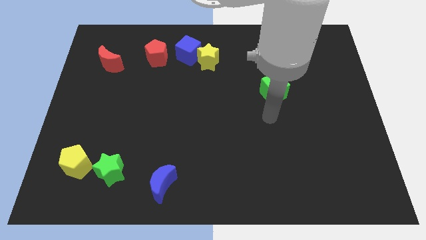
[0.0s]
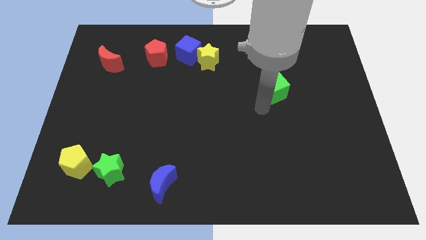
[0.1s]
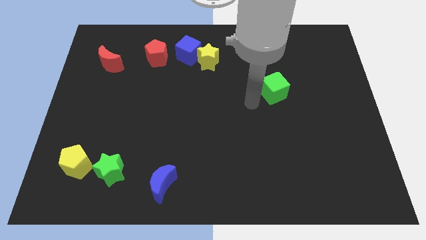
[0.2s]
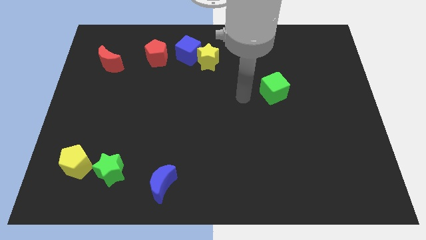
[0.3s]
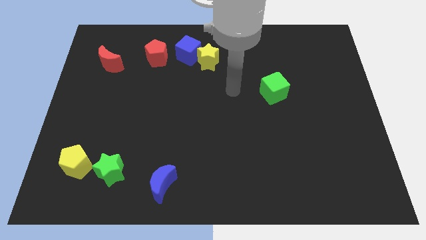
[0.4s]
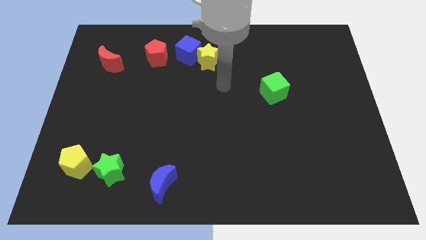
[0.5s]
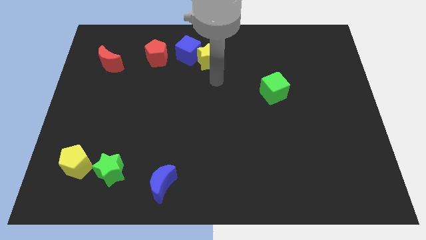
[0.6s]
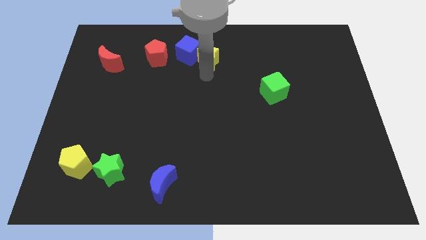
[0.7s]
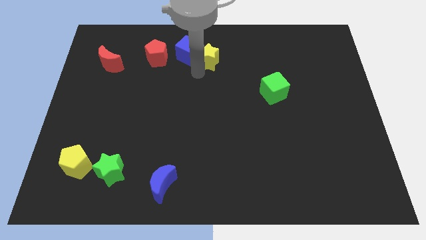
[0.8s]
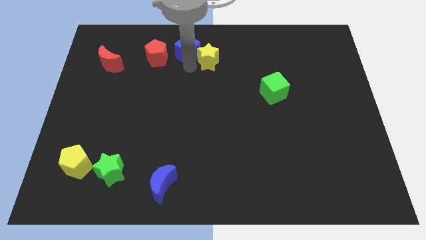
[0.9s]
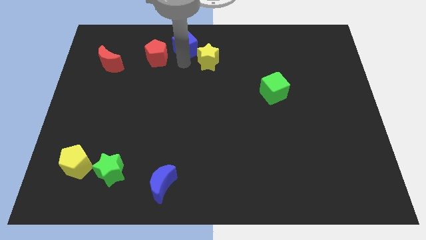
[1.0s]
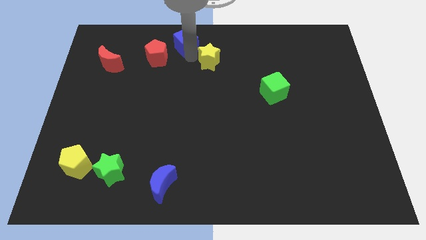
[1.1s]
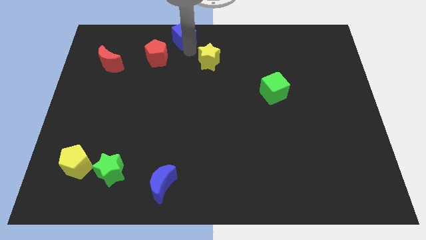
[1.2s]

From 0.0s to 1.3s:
pull the yellow star apart from the blue cube

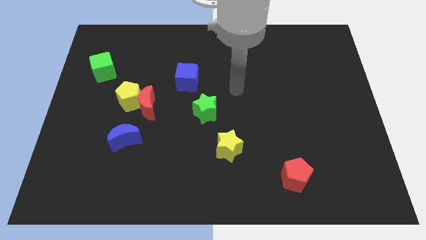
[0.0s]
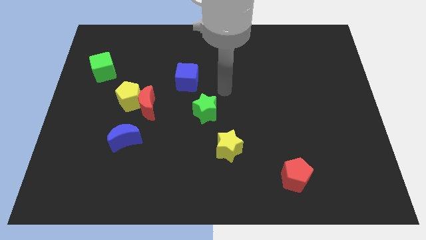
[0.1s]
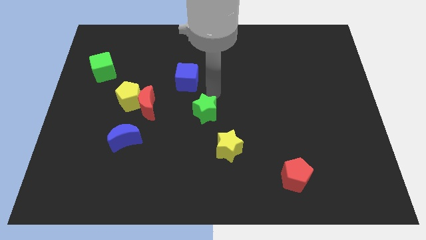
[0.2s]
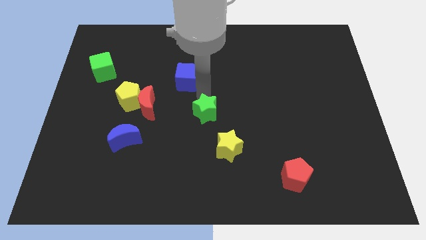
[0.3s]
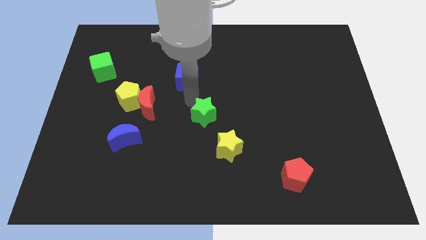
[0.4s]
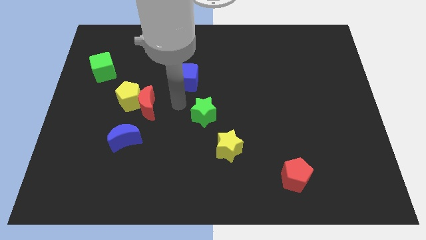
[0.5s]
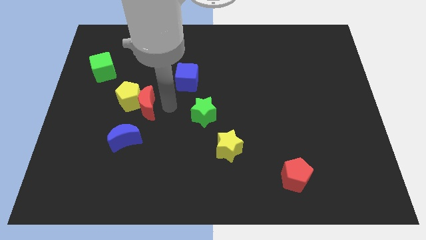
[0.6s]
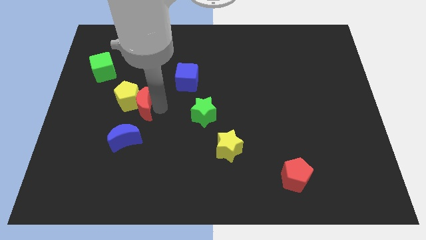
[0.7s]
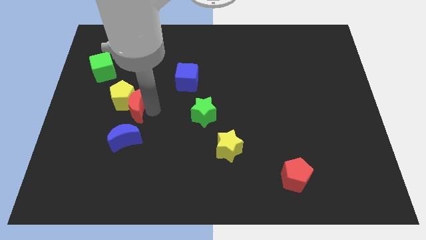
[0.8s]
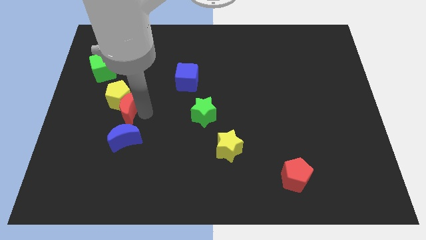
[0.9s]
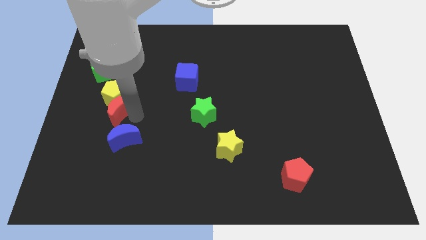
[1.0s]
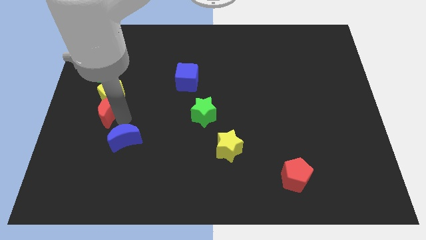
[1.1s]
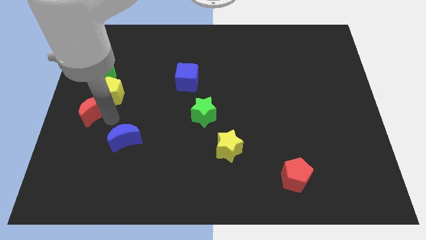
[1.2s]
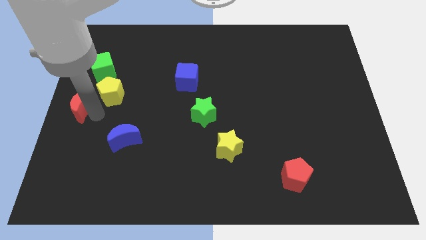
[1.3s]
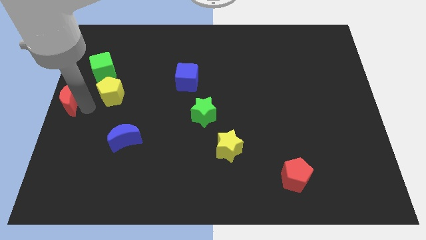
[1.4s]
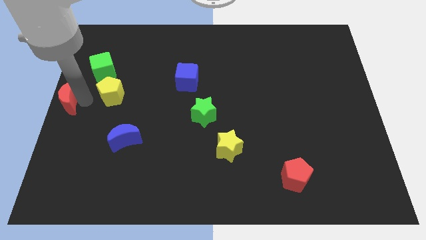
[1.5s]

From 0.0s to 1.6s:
separate the yellow pentagon from the red moon

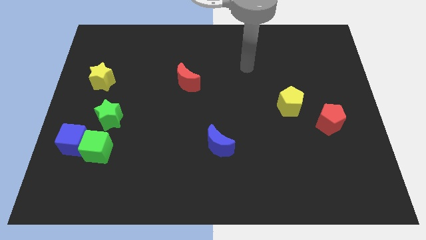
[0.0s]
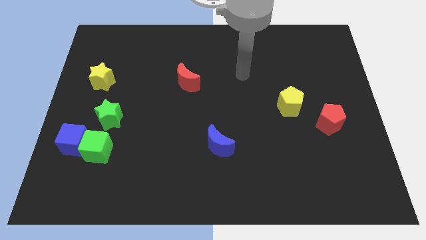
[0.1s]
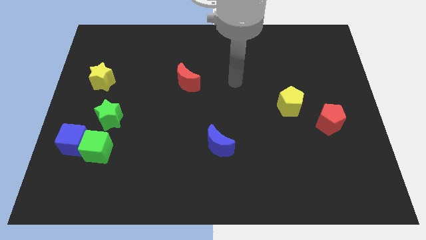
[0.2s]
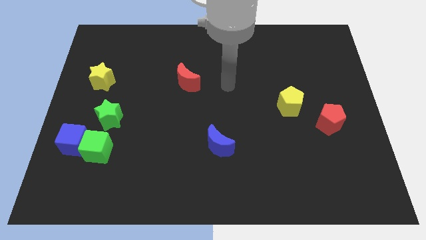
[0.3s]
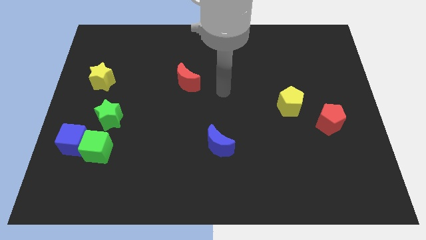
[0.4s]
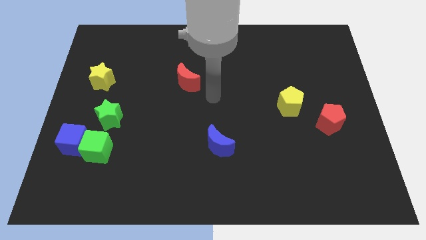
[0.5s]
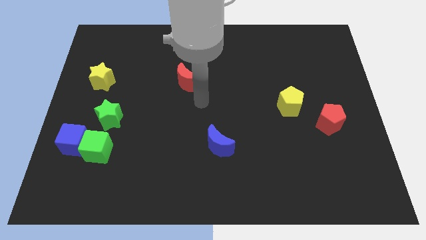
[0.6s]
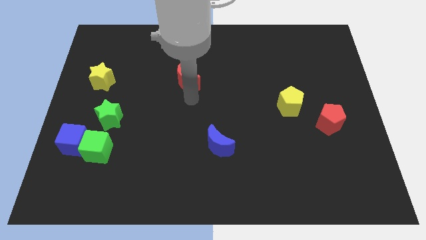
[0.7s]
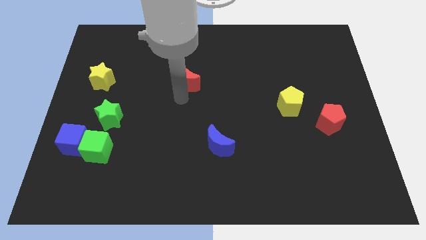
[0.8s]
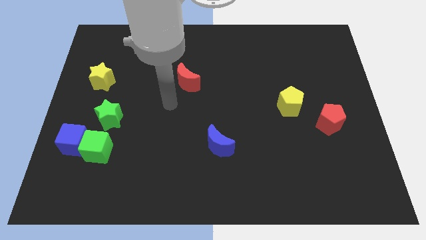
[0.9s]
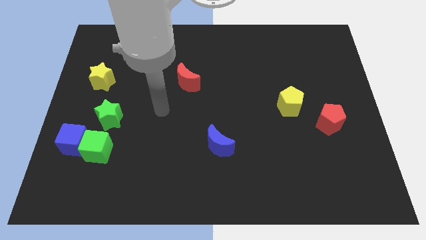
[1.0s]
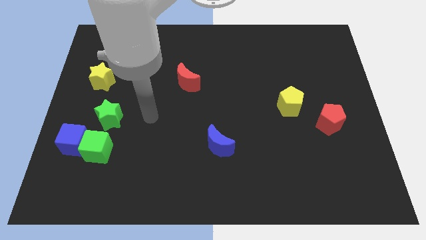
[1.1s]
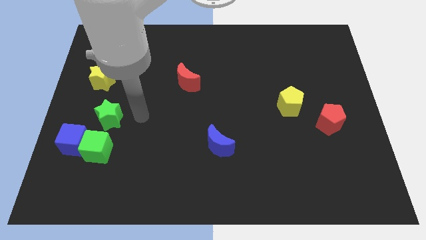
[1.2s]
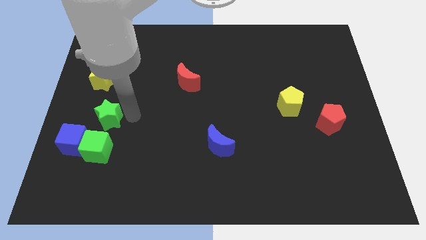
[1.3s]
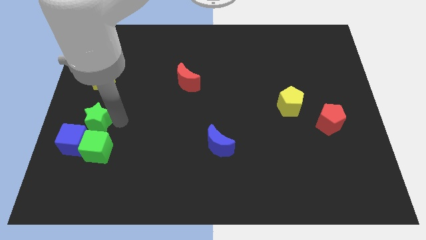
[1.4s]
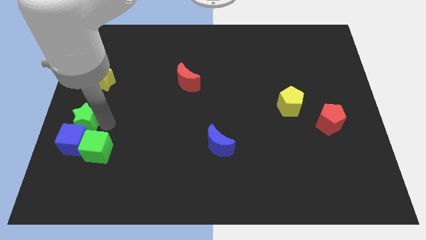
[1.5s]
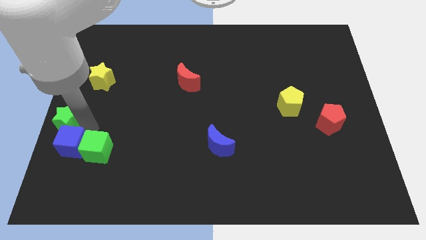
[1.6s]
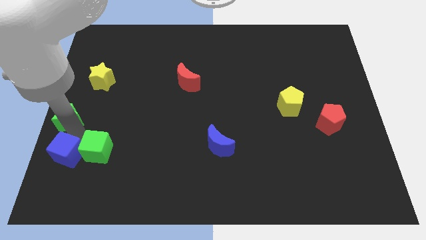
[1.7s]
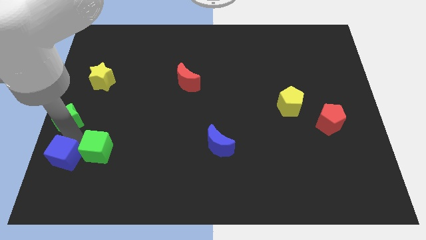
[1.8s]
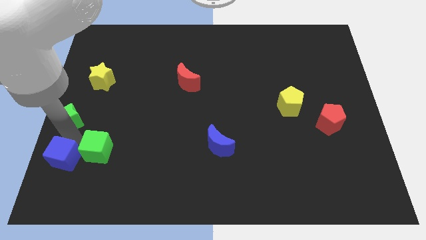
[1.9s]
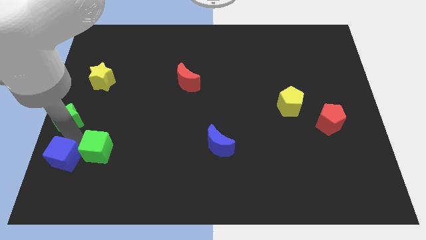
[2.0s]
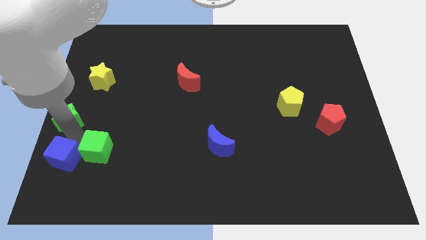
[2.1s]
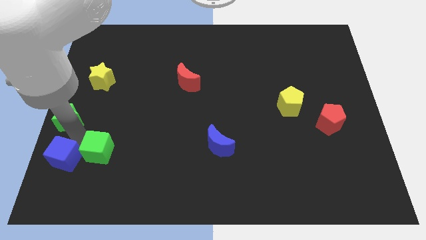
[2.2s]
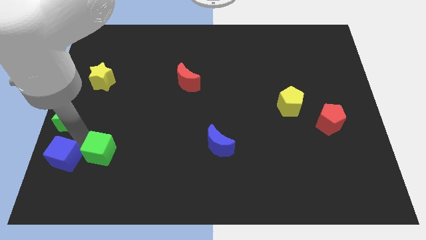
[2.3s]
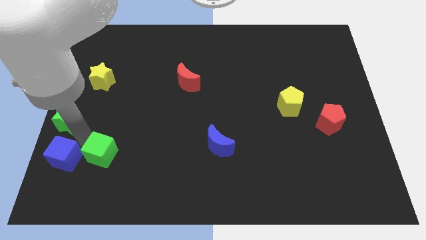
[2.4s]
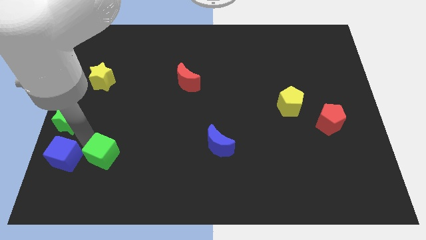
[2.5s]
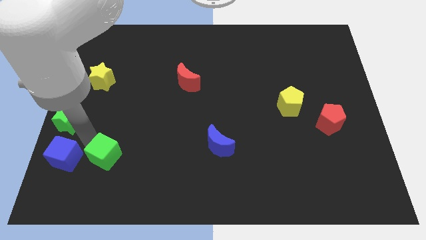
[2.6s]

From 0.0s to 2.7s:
move the green cube away from the blue cube and green star

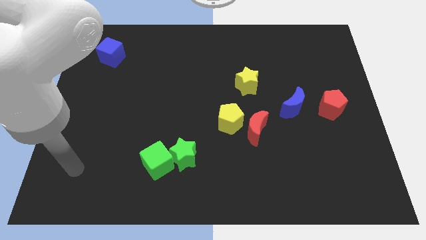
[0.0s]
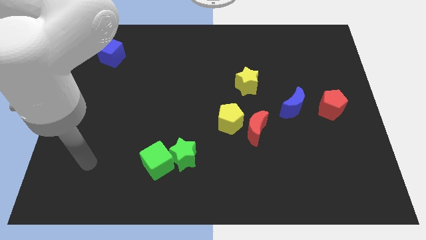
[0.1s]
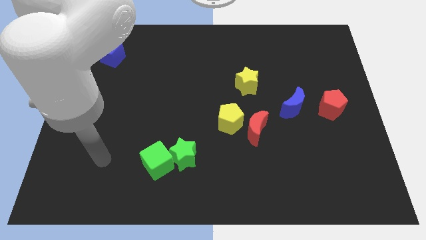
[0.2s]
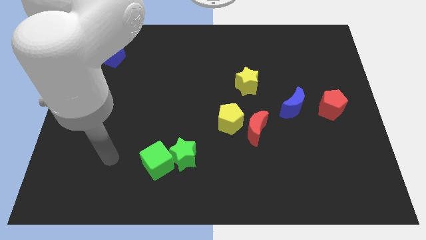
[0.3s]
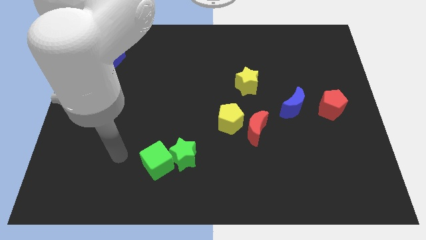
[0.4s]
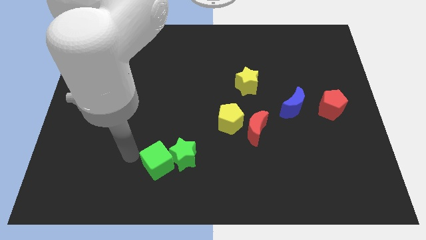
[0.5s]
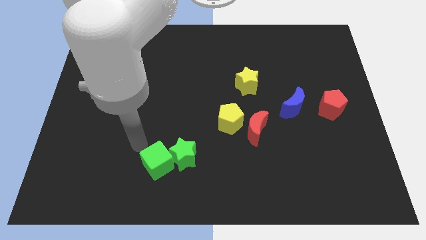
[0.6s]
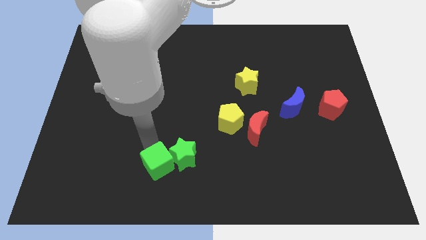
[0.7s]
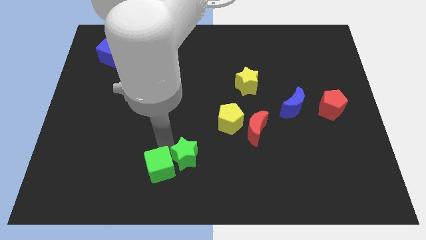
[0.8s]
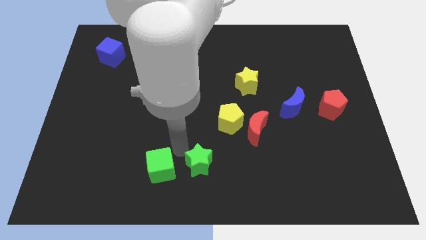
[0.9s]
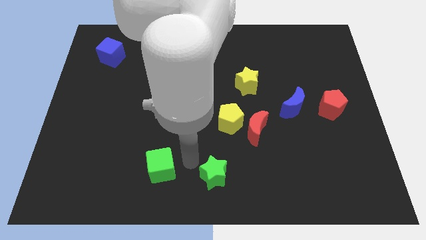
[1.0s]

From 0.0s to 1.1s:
pull the green cube apart from the green star

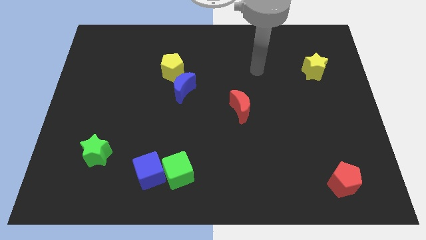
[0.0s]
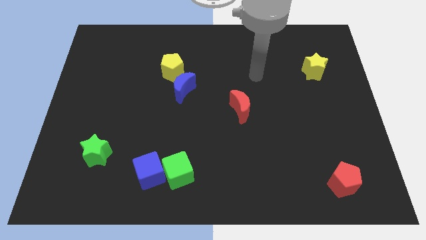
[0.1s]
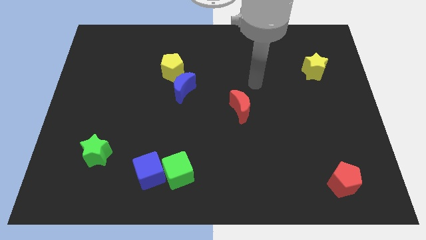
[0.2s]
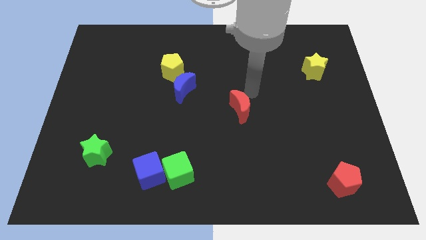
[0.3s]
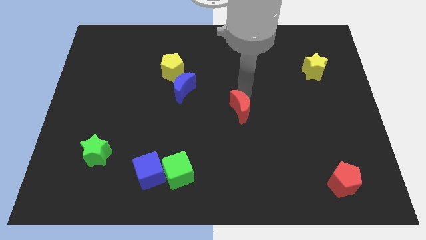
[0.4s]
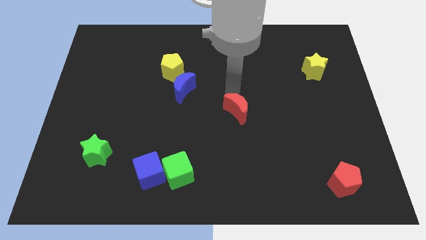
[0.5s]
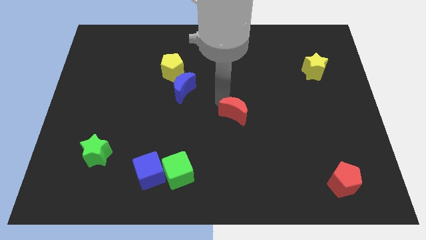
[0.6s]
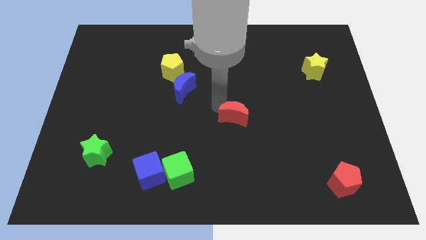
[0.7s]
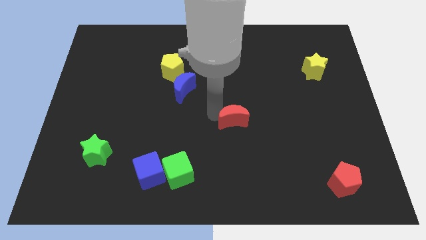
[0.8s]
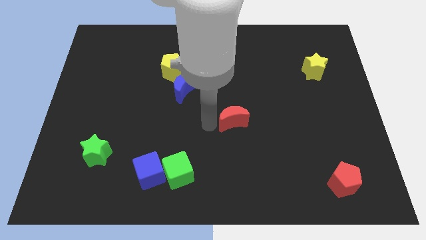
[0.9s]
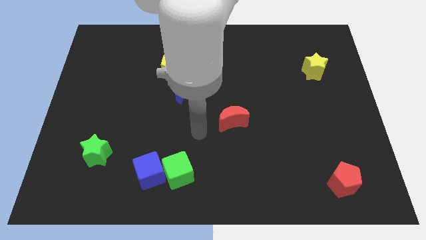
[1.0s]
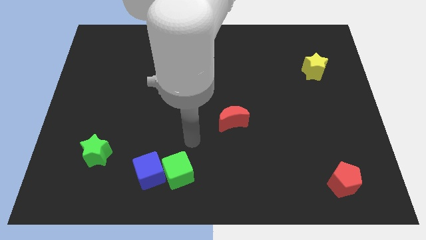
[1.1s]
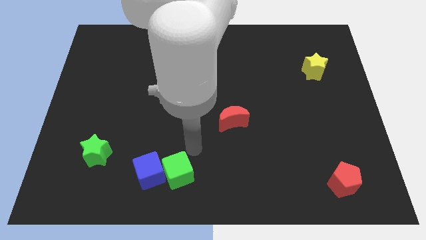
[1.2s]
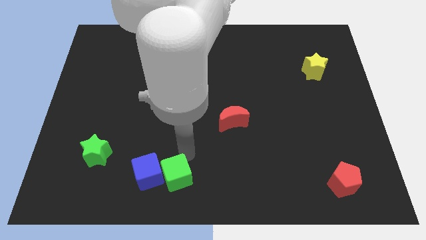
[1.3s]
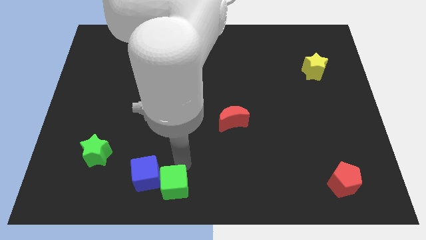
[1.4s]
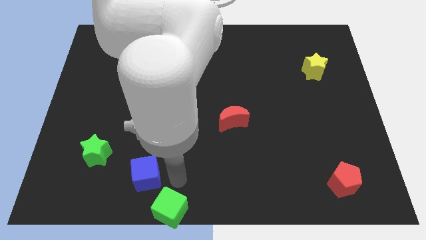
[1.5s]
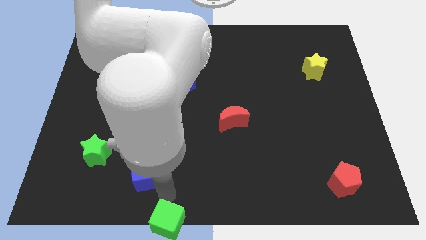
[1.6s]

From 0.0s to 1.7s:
pull the blue cube apart from the green cube

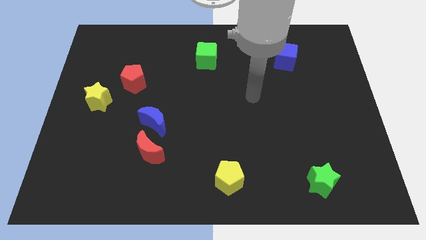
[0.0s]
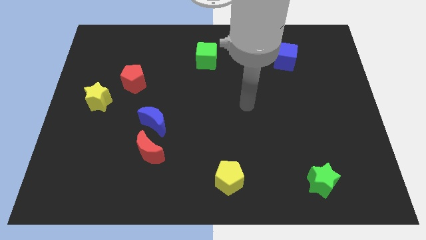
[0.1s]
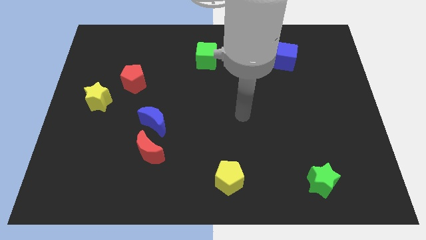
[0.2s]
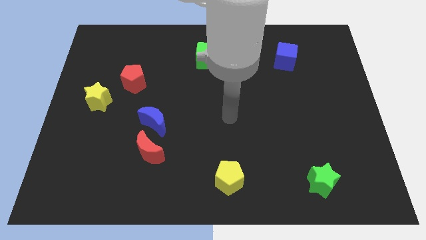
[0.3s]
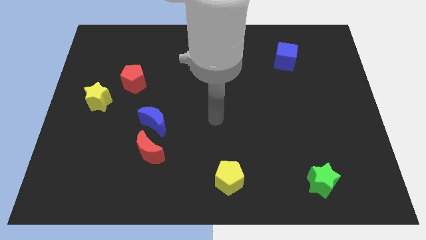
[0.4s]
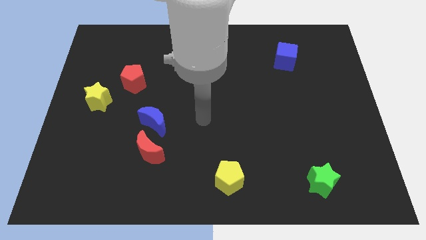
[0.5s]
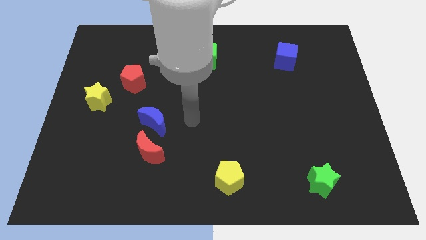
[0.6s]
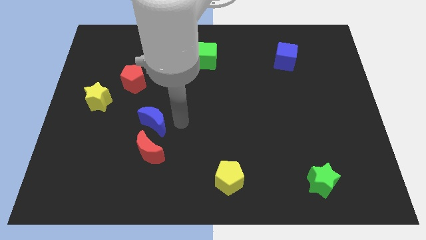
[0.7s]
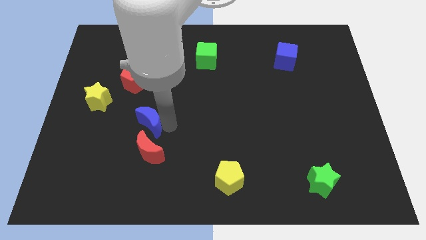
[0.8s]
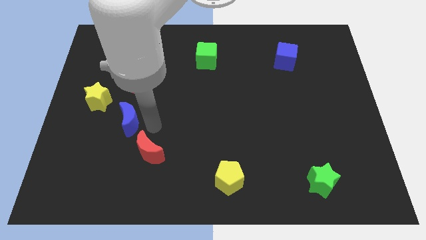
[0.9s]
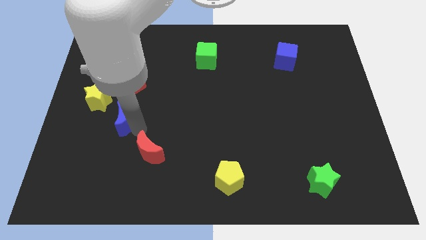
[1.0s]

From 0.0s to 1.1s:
pull the red moon apart from the blue moon
